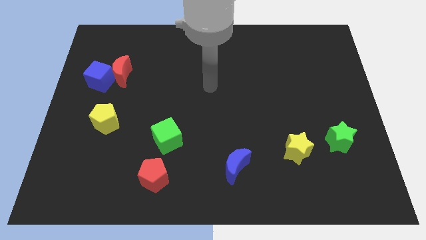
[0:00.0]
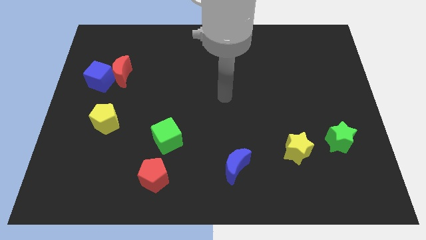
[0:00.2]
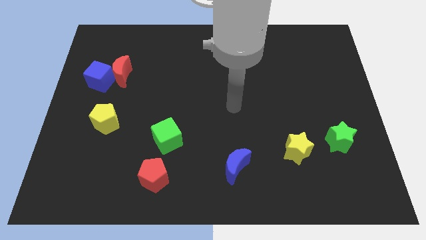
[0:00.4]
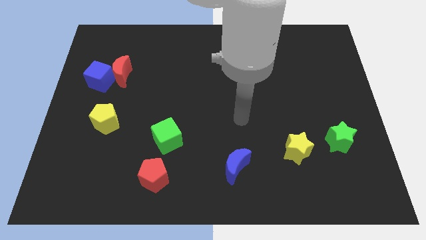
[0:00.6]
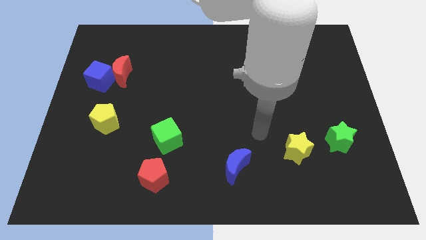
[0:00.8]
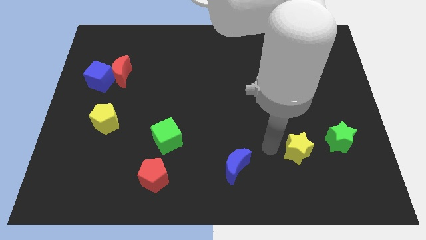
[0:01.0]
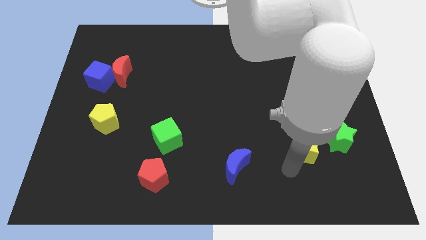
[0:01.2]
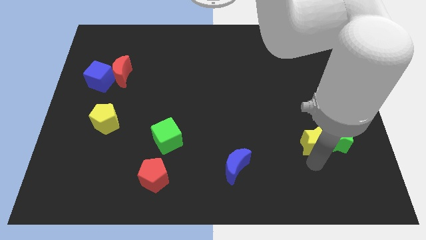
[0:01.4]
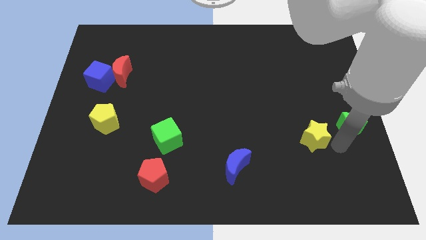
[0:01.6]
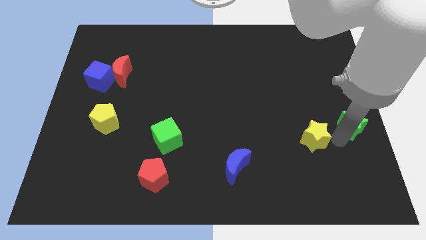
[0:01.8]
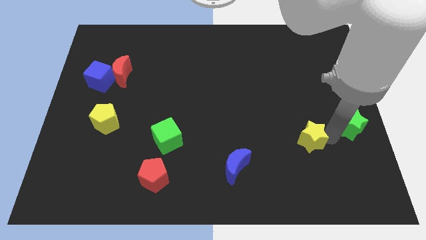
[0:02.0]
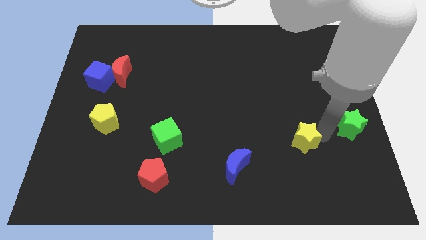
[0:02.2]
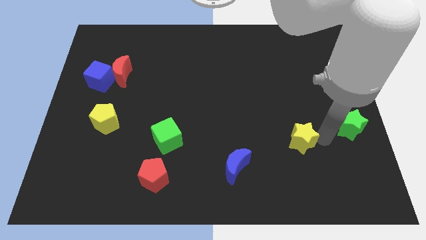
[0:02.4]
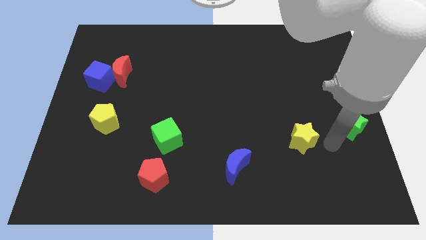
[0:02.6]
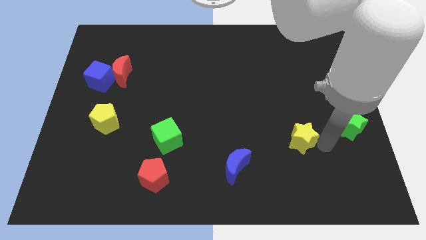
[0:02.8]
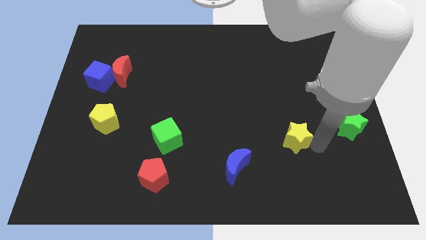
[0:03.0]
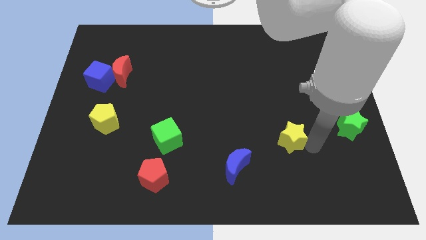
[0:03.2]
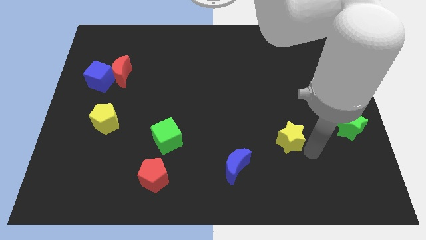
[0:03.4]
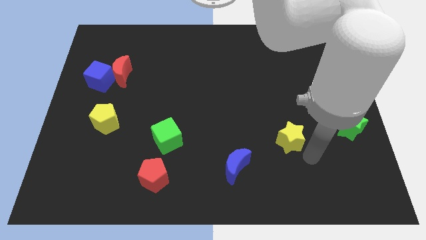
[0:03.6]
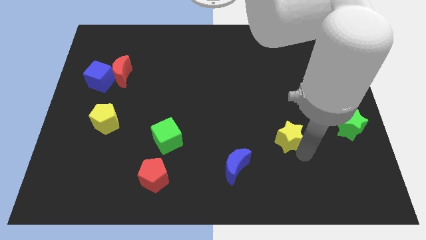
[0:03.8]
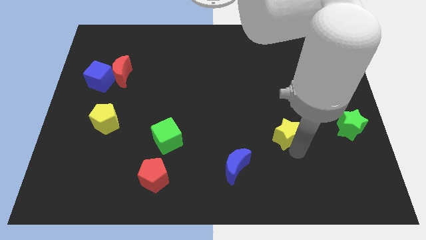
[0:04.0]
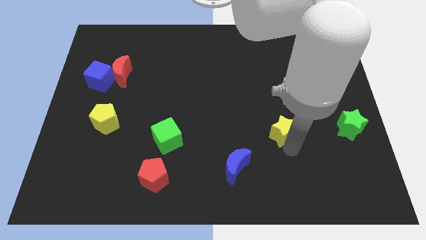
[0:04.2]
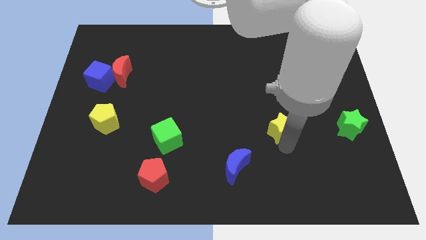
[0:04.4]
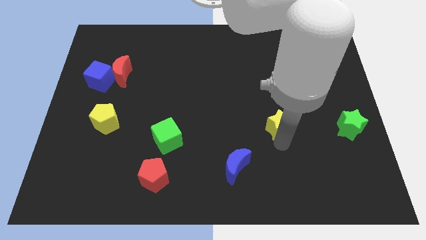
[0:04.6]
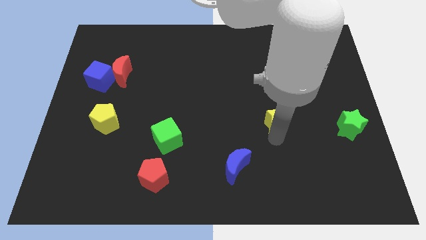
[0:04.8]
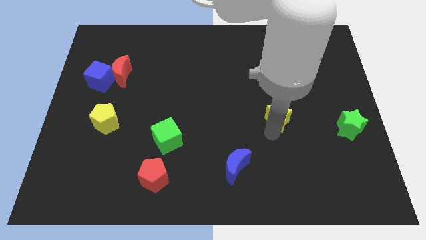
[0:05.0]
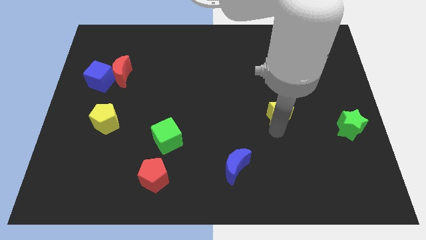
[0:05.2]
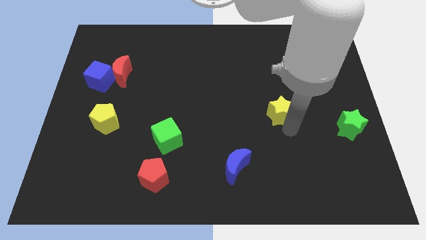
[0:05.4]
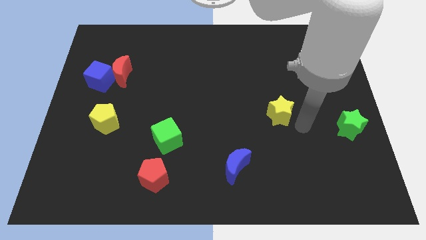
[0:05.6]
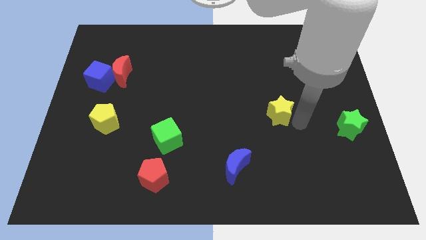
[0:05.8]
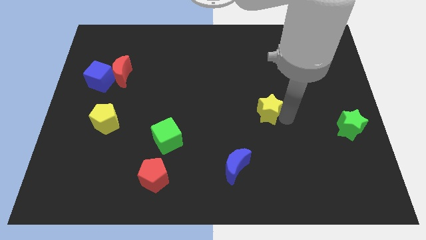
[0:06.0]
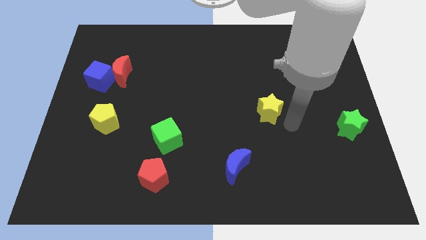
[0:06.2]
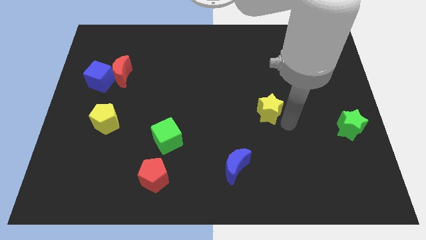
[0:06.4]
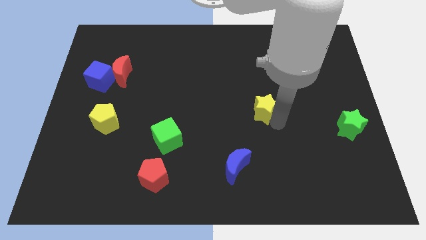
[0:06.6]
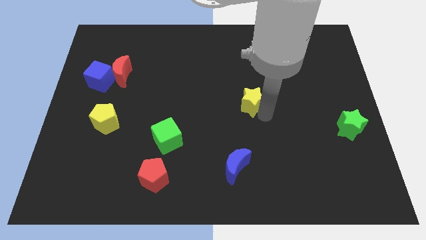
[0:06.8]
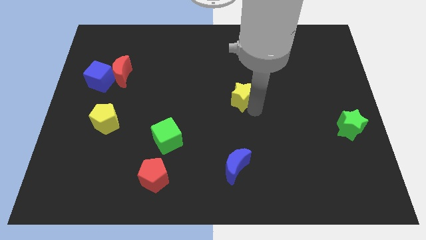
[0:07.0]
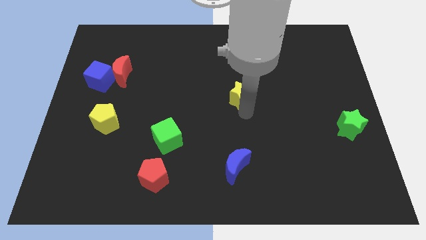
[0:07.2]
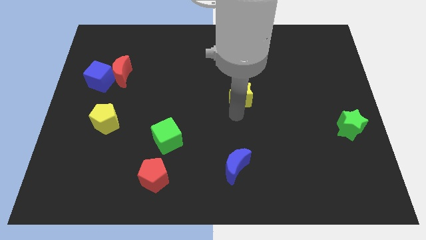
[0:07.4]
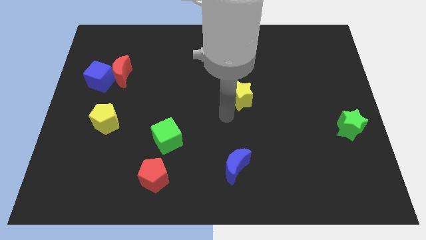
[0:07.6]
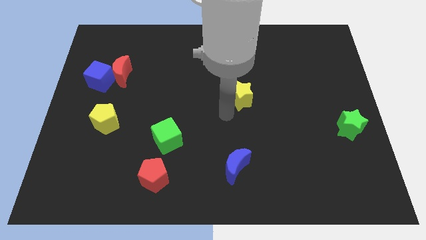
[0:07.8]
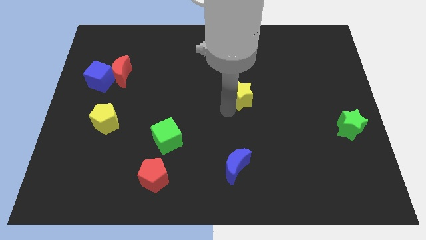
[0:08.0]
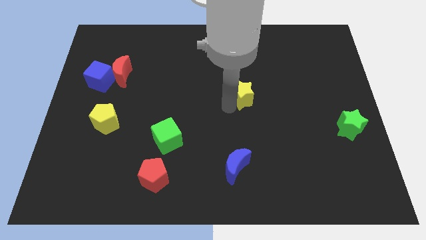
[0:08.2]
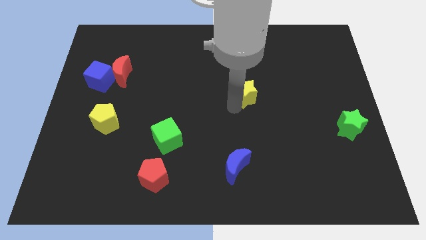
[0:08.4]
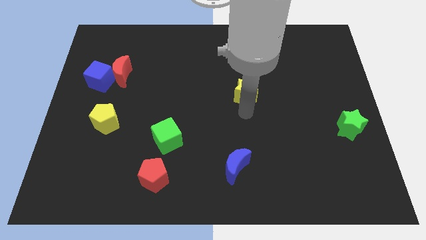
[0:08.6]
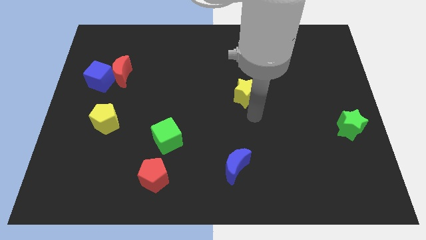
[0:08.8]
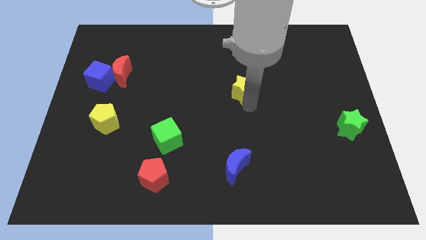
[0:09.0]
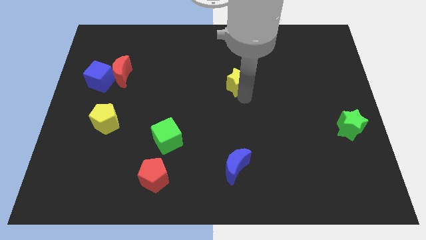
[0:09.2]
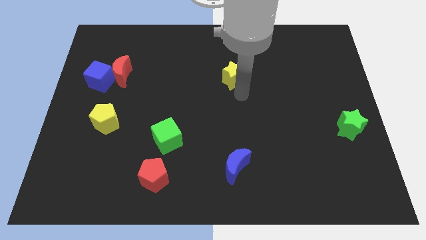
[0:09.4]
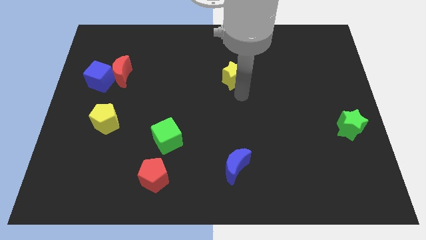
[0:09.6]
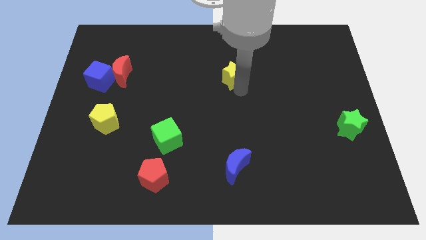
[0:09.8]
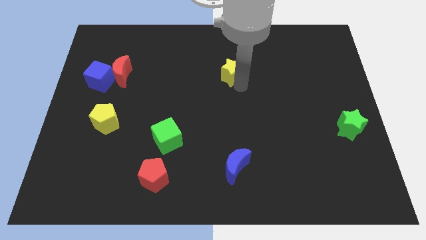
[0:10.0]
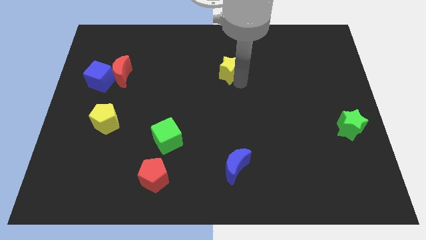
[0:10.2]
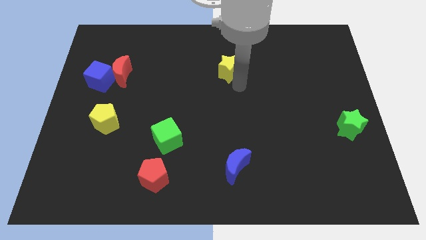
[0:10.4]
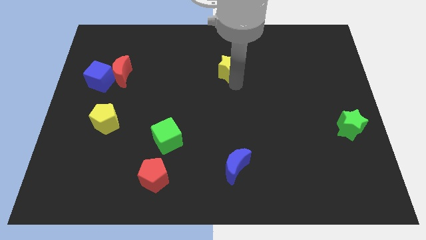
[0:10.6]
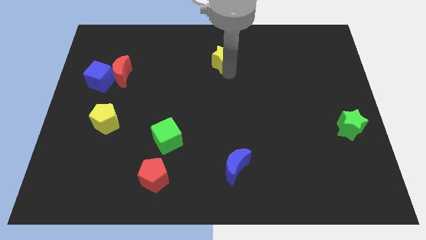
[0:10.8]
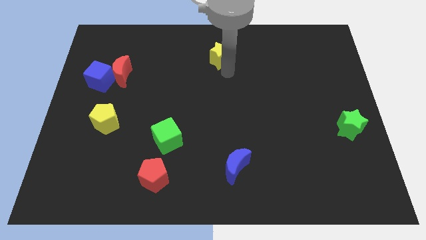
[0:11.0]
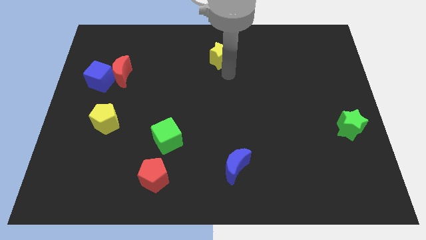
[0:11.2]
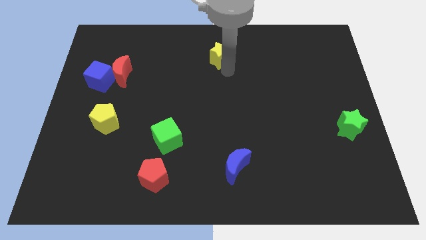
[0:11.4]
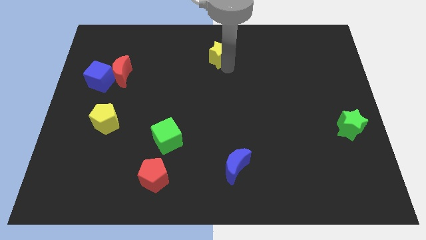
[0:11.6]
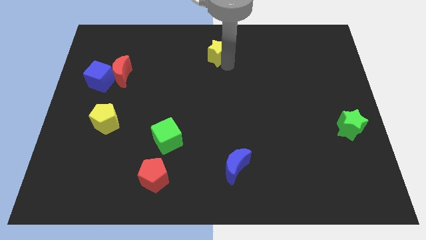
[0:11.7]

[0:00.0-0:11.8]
slide the yellow star to the top side

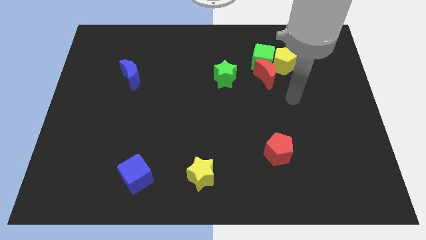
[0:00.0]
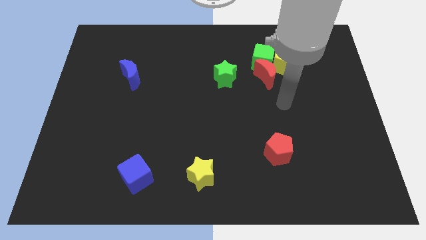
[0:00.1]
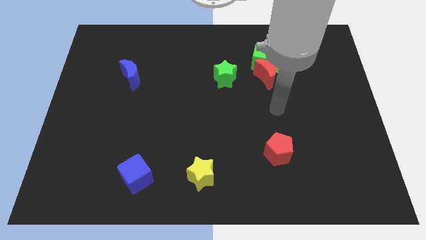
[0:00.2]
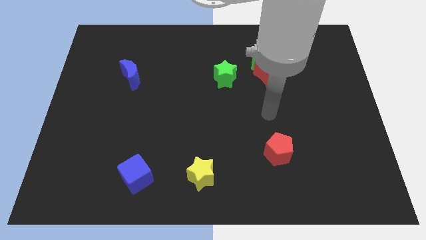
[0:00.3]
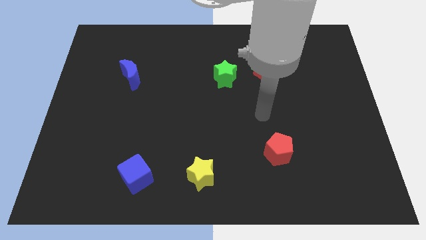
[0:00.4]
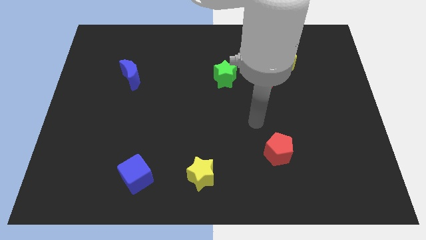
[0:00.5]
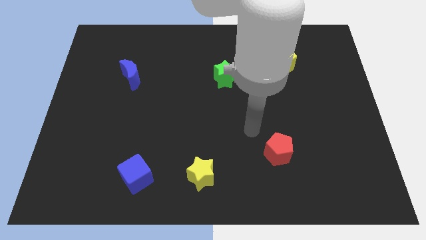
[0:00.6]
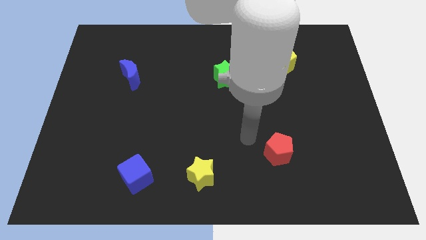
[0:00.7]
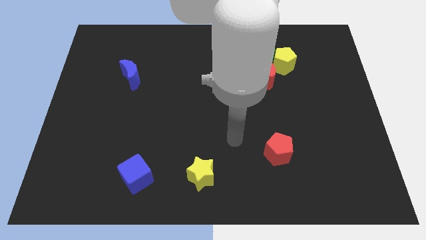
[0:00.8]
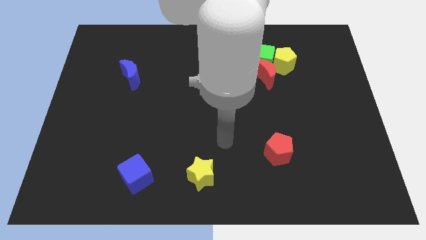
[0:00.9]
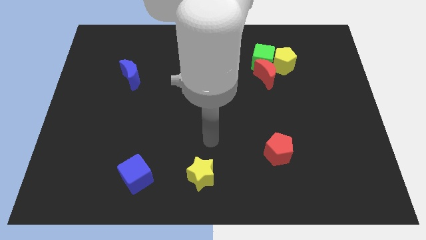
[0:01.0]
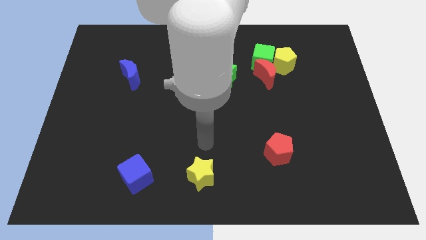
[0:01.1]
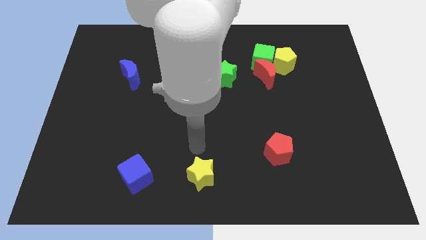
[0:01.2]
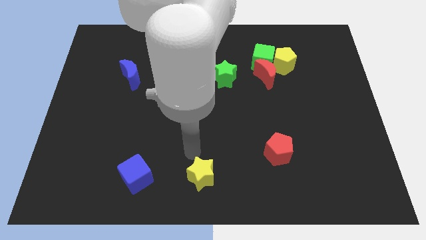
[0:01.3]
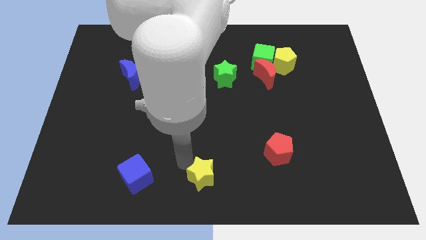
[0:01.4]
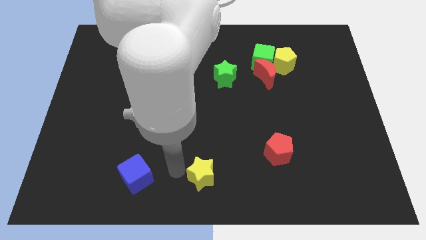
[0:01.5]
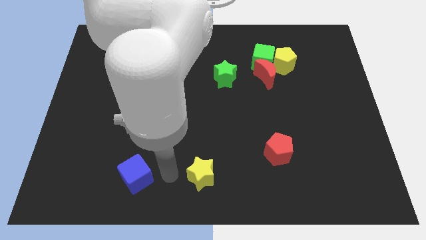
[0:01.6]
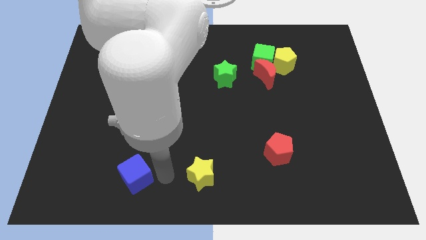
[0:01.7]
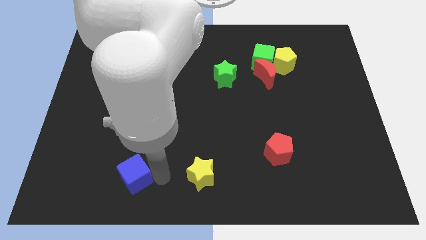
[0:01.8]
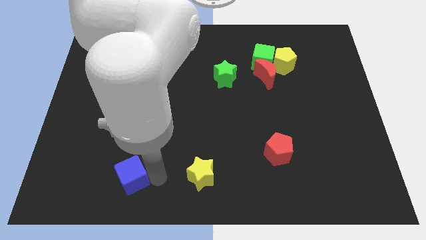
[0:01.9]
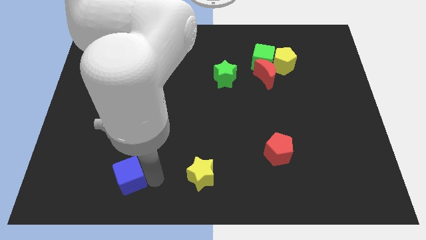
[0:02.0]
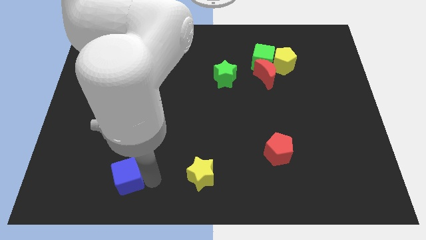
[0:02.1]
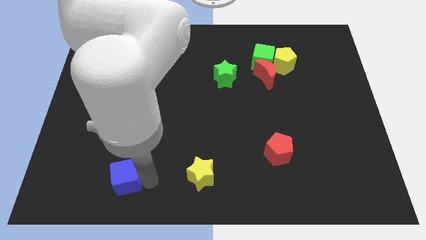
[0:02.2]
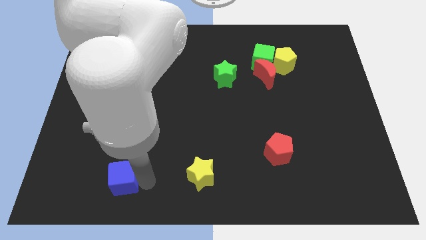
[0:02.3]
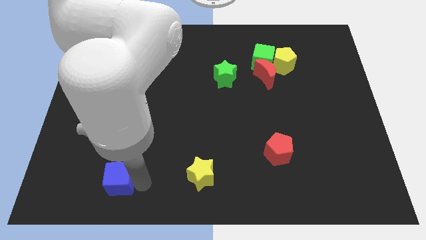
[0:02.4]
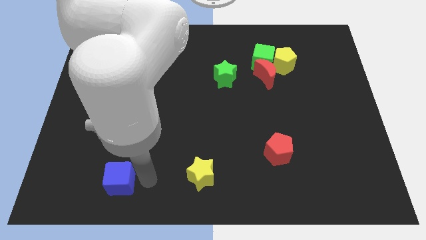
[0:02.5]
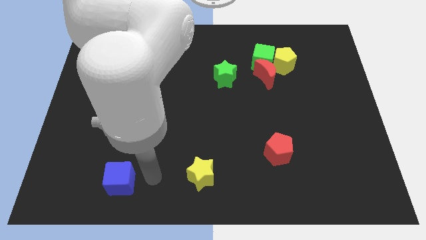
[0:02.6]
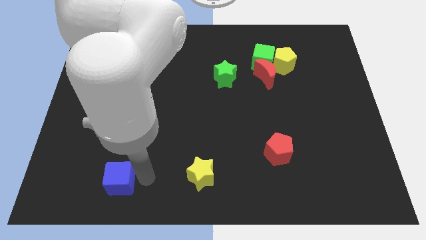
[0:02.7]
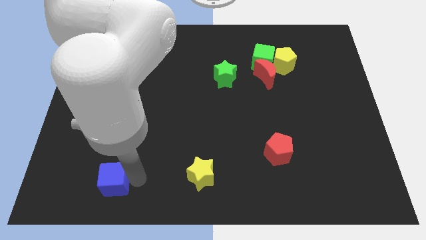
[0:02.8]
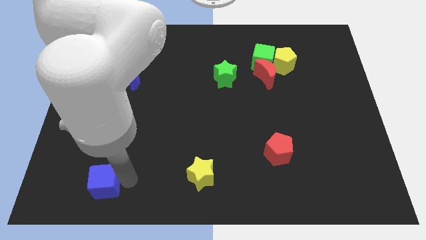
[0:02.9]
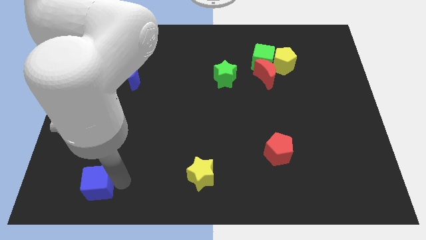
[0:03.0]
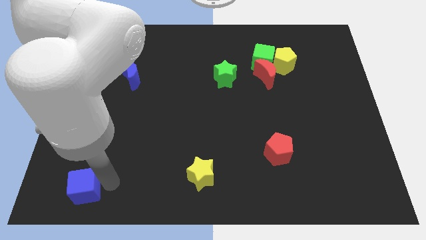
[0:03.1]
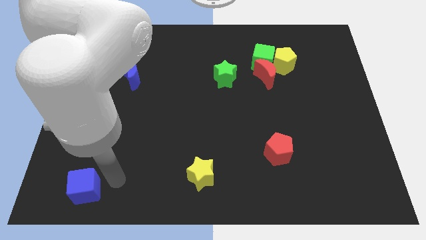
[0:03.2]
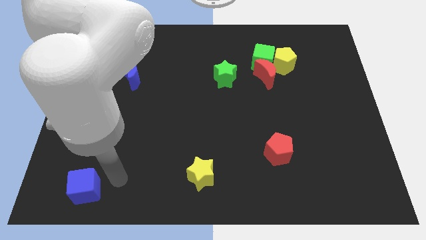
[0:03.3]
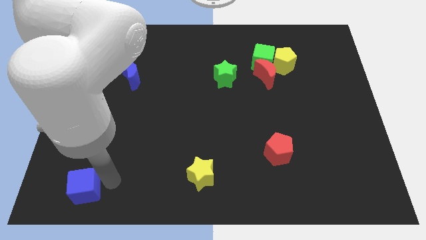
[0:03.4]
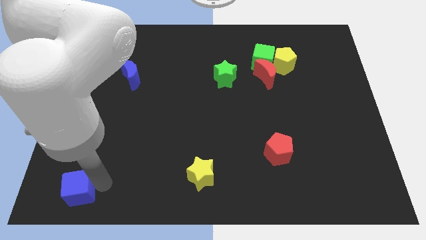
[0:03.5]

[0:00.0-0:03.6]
move the blue cube to the bottom left
